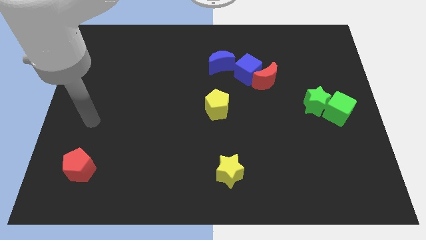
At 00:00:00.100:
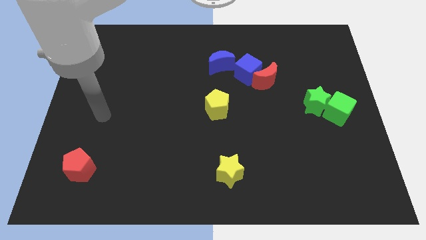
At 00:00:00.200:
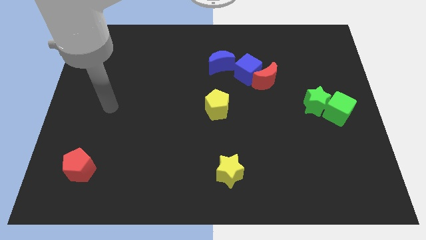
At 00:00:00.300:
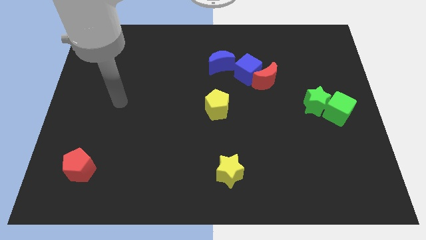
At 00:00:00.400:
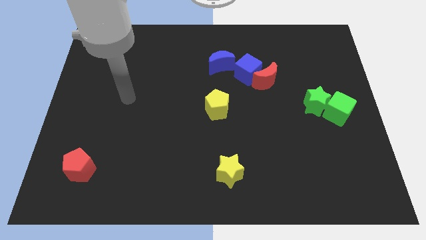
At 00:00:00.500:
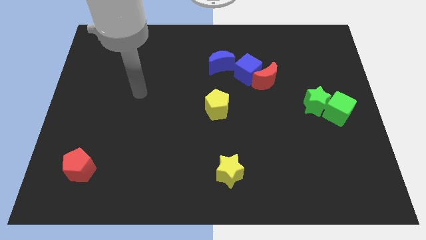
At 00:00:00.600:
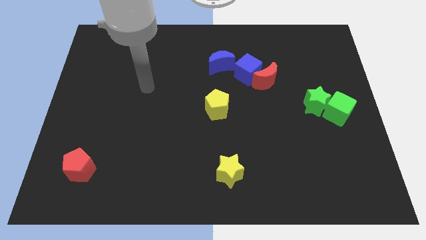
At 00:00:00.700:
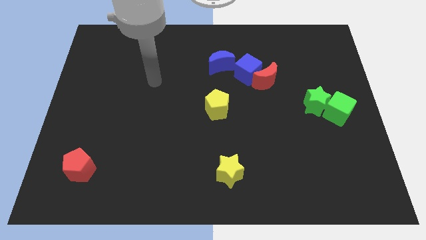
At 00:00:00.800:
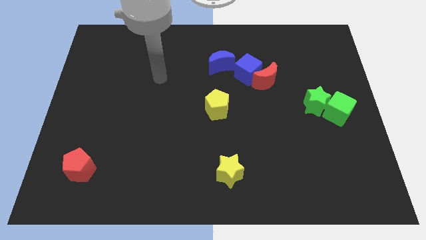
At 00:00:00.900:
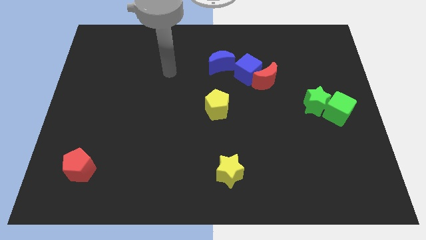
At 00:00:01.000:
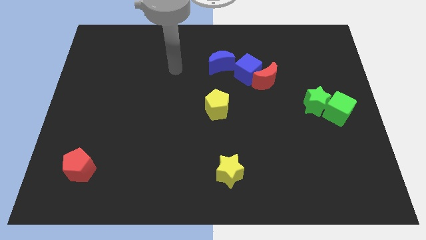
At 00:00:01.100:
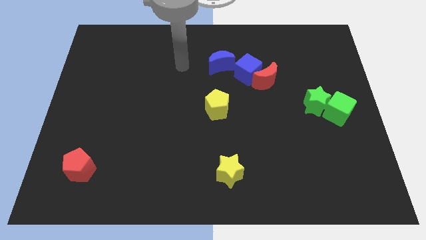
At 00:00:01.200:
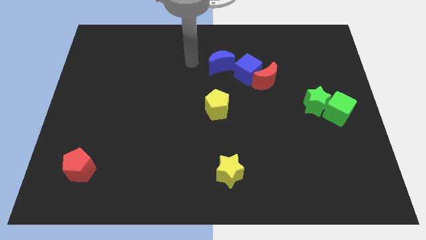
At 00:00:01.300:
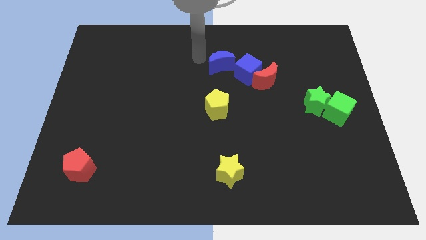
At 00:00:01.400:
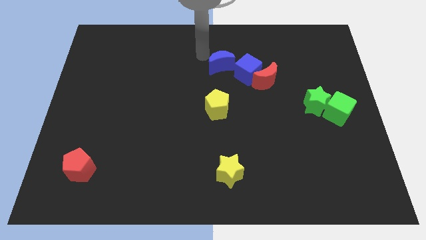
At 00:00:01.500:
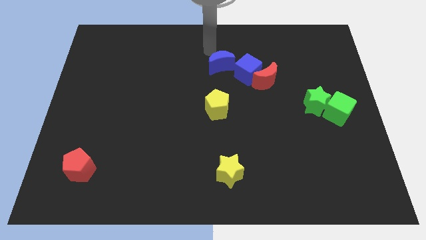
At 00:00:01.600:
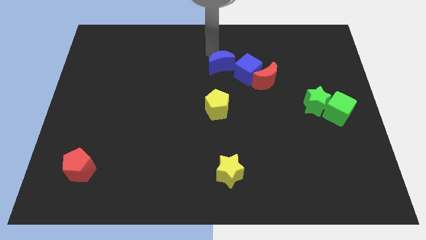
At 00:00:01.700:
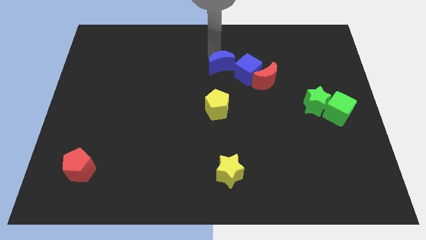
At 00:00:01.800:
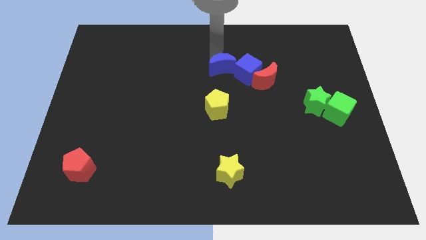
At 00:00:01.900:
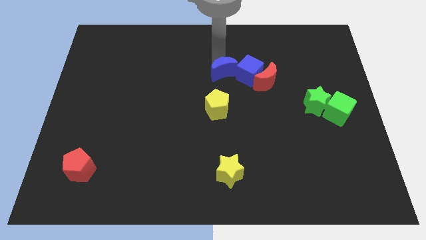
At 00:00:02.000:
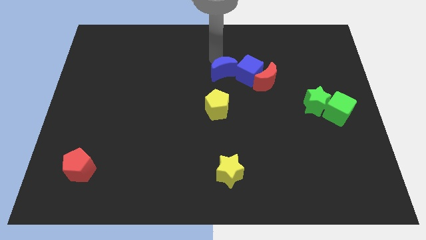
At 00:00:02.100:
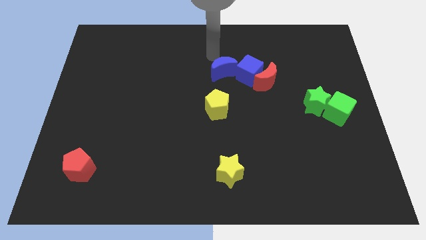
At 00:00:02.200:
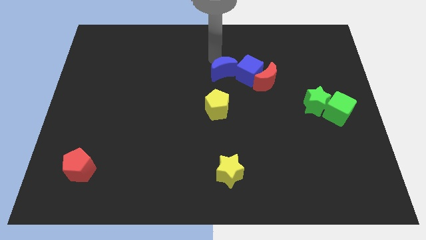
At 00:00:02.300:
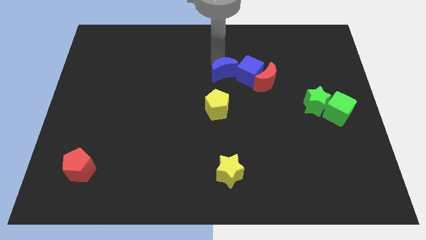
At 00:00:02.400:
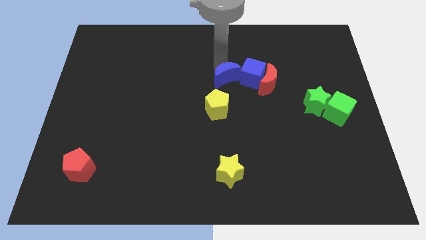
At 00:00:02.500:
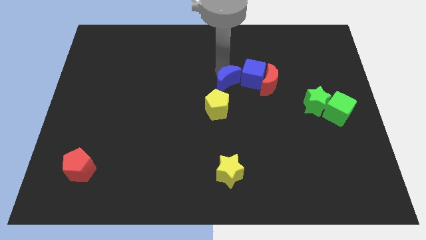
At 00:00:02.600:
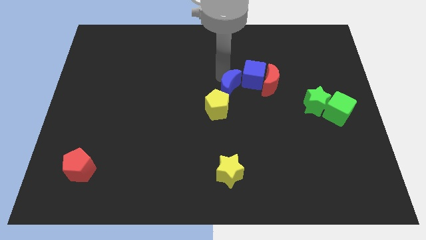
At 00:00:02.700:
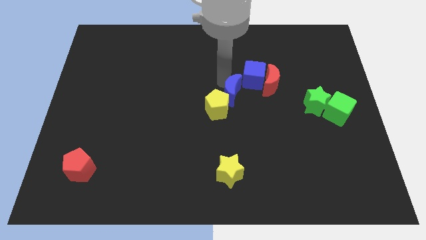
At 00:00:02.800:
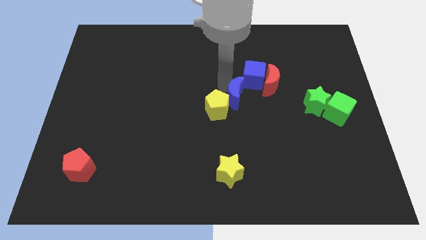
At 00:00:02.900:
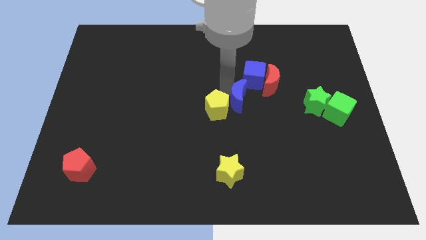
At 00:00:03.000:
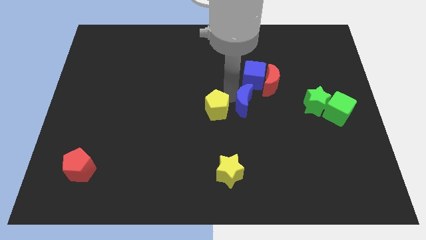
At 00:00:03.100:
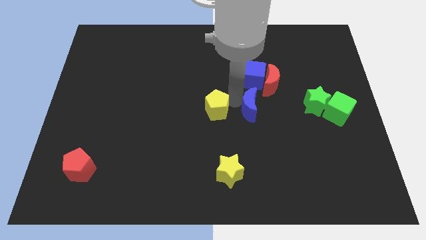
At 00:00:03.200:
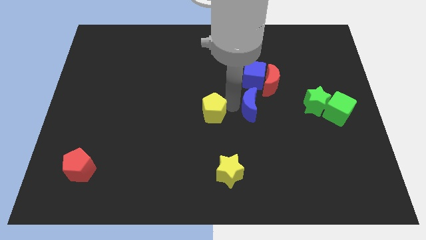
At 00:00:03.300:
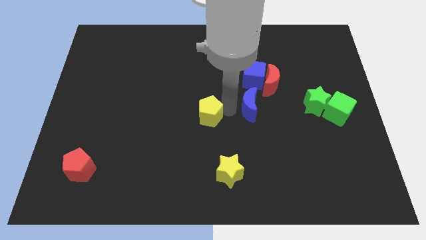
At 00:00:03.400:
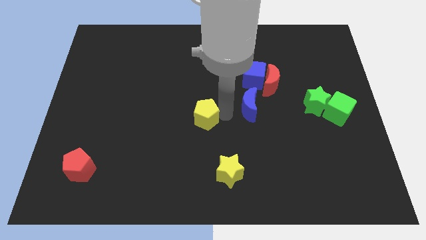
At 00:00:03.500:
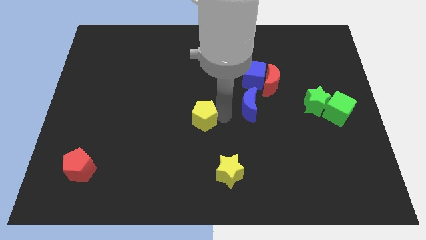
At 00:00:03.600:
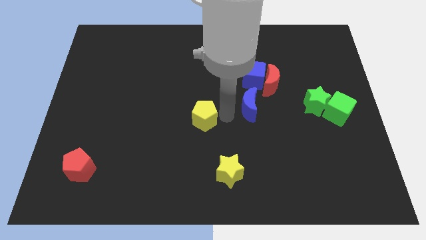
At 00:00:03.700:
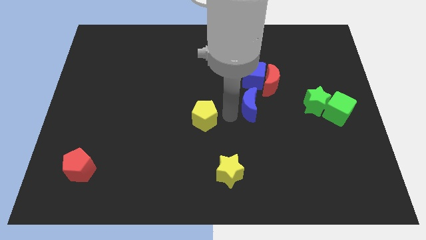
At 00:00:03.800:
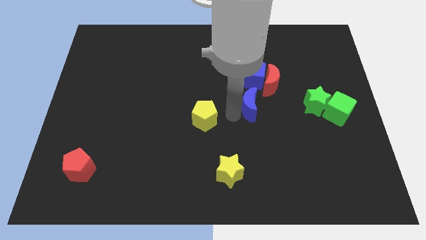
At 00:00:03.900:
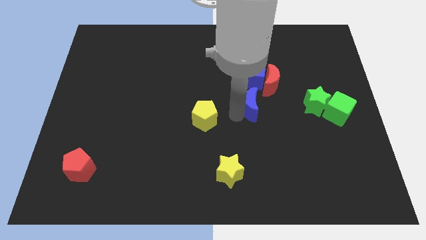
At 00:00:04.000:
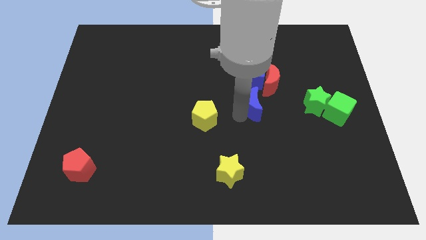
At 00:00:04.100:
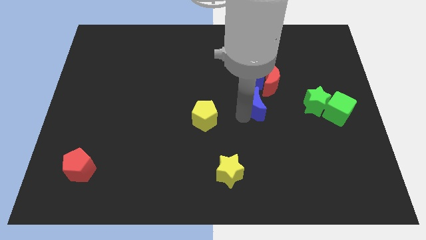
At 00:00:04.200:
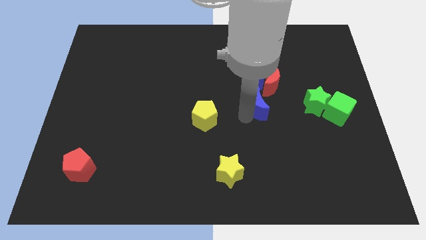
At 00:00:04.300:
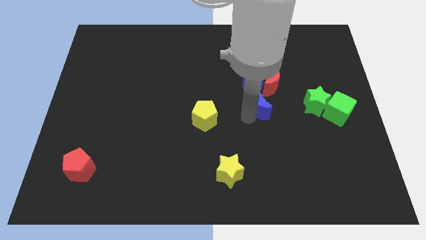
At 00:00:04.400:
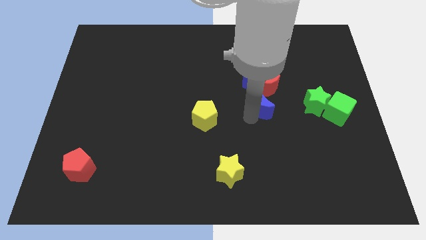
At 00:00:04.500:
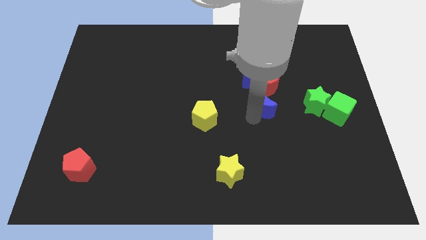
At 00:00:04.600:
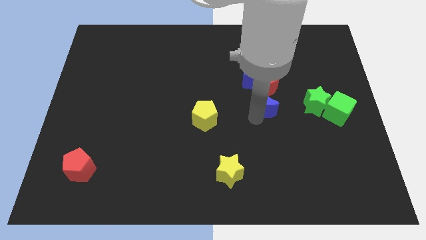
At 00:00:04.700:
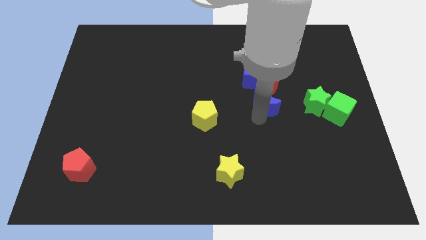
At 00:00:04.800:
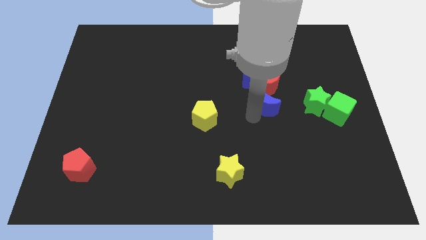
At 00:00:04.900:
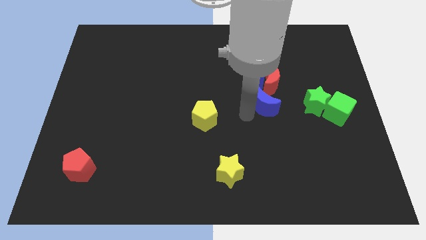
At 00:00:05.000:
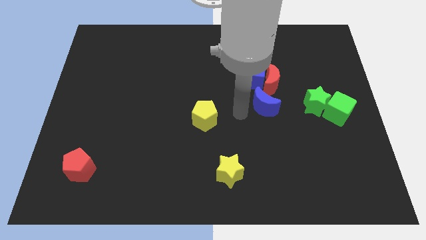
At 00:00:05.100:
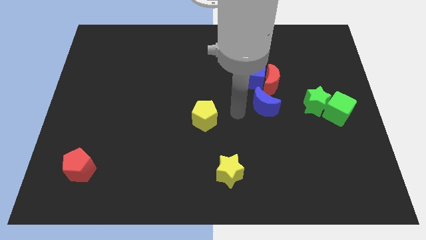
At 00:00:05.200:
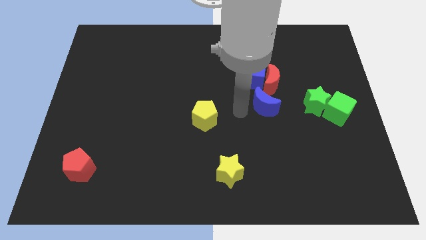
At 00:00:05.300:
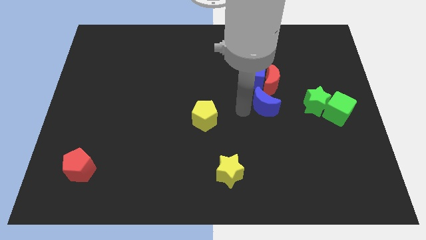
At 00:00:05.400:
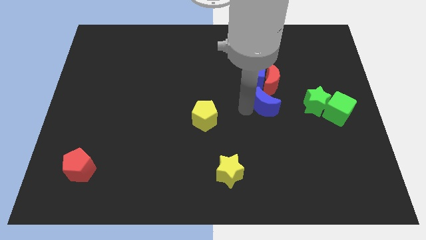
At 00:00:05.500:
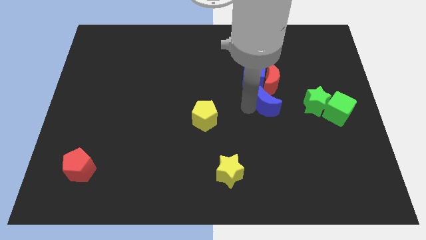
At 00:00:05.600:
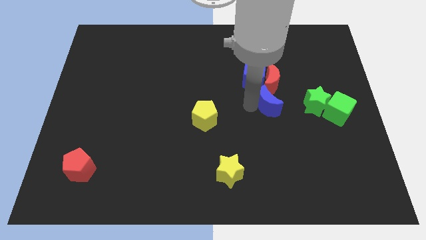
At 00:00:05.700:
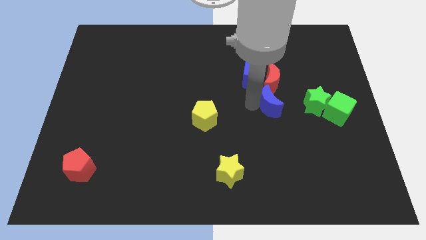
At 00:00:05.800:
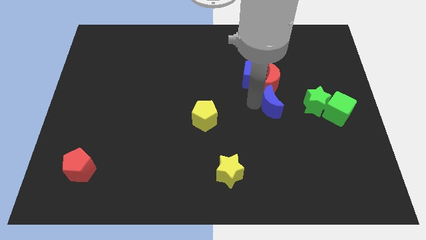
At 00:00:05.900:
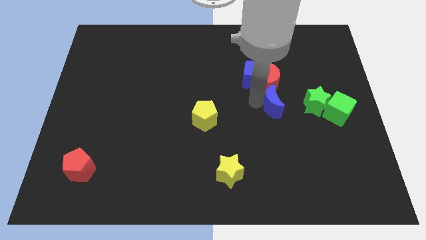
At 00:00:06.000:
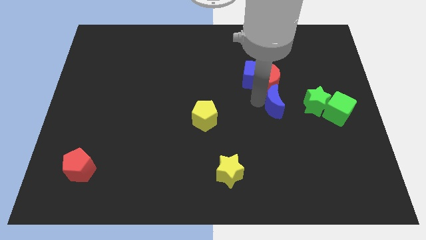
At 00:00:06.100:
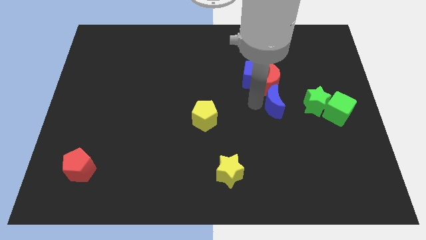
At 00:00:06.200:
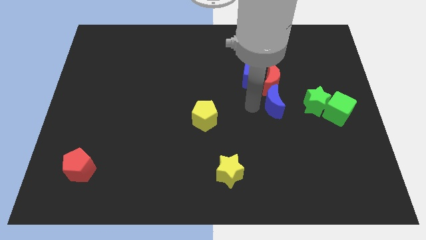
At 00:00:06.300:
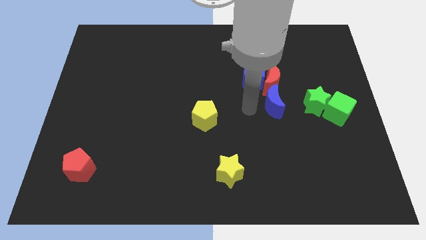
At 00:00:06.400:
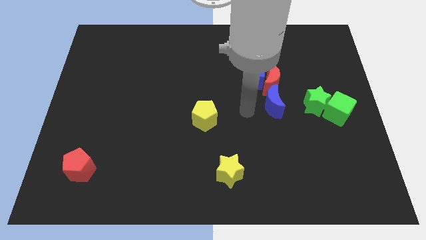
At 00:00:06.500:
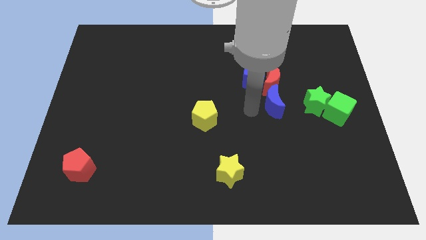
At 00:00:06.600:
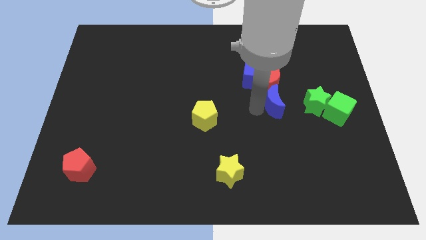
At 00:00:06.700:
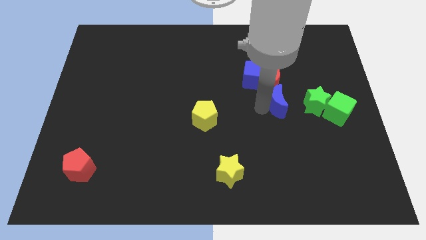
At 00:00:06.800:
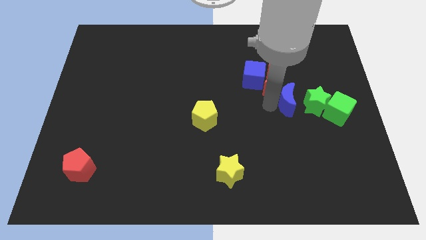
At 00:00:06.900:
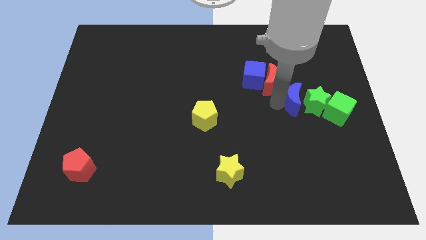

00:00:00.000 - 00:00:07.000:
push the blue moon next to the green star
